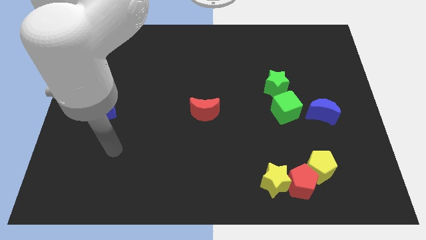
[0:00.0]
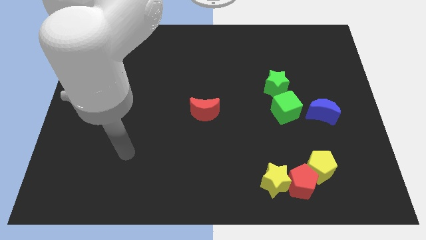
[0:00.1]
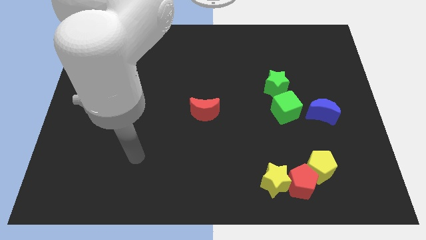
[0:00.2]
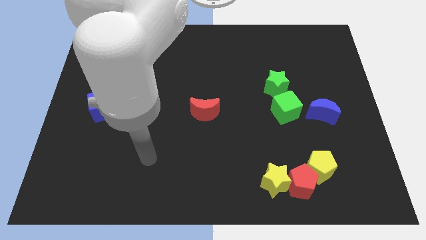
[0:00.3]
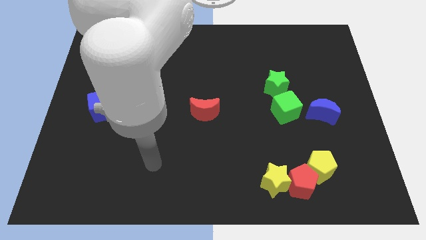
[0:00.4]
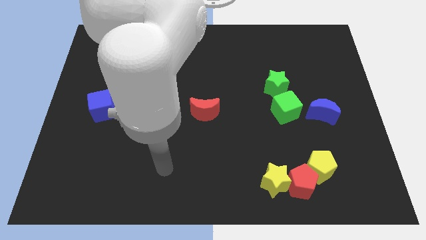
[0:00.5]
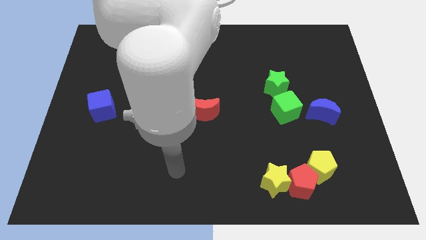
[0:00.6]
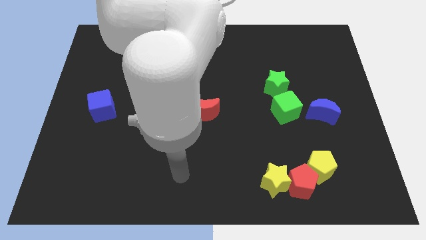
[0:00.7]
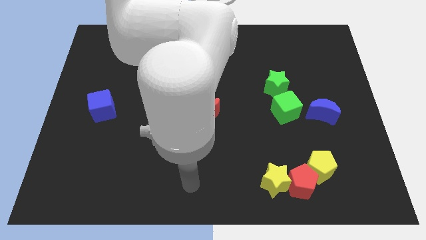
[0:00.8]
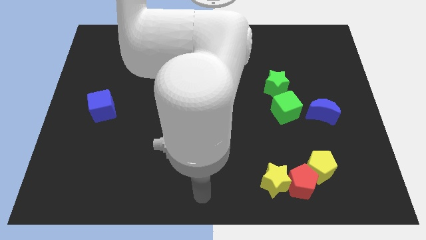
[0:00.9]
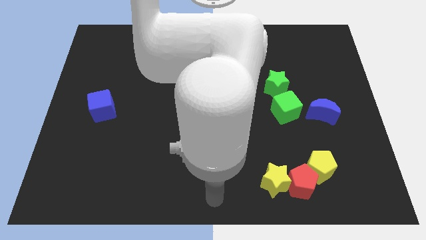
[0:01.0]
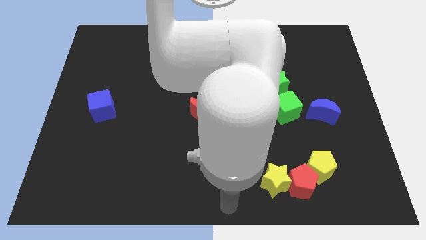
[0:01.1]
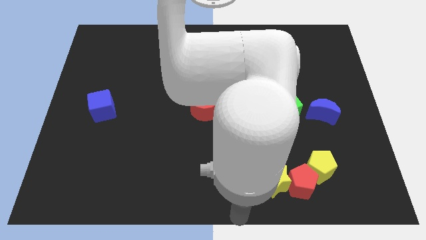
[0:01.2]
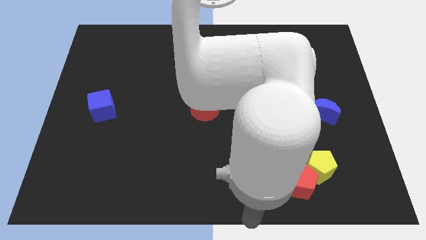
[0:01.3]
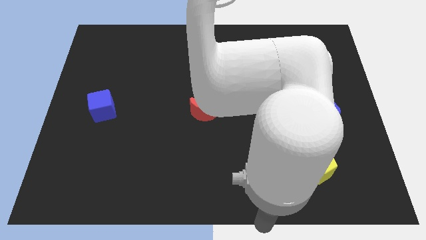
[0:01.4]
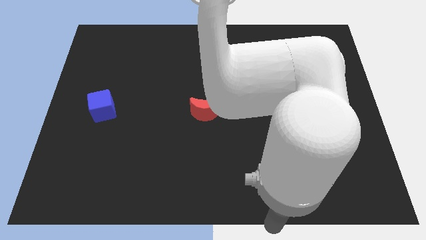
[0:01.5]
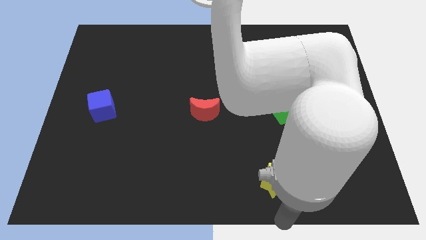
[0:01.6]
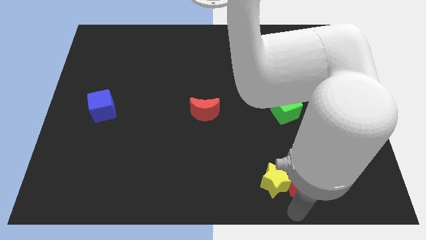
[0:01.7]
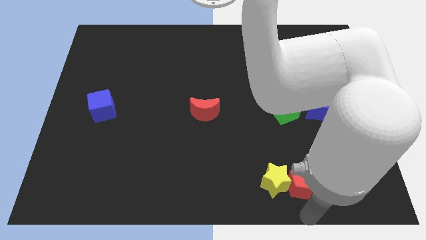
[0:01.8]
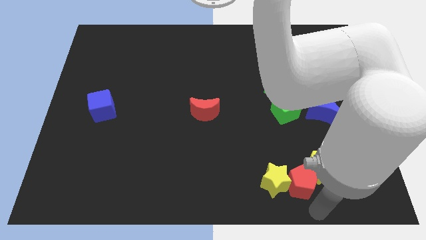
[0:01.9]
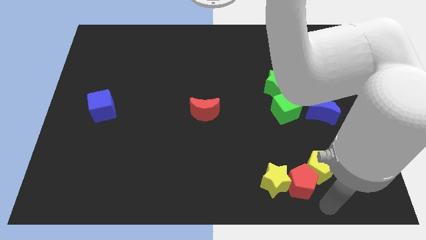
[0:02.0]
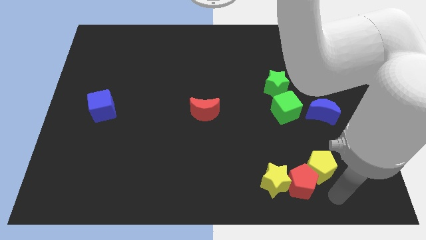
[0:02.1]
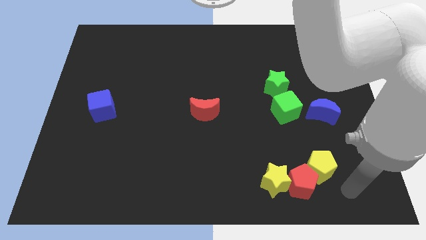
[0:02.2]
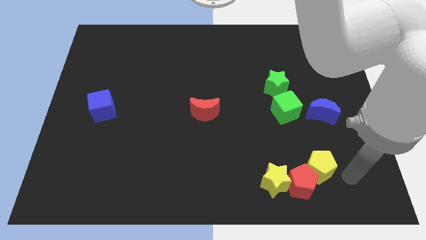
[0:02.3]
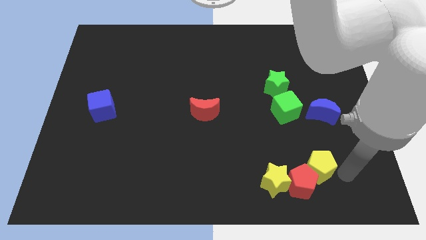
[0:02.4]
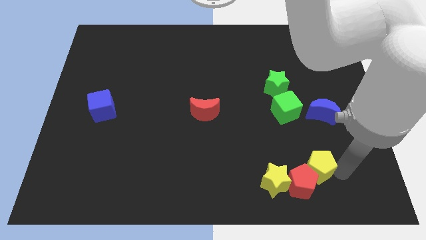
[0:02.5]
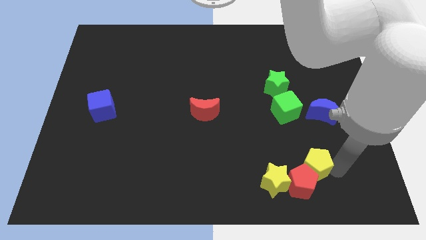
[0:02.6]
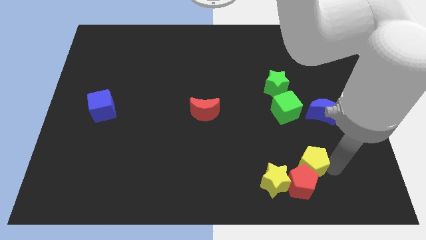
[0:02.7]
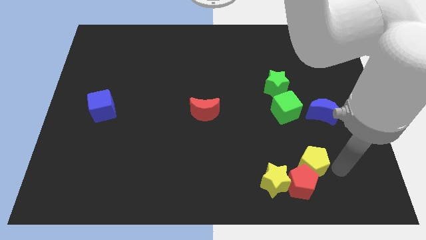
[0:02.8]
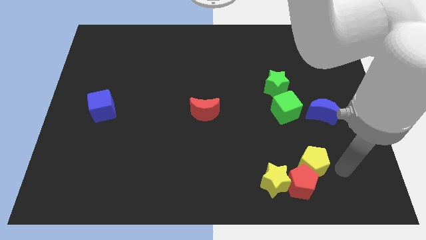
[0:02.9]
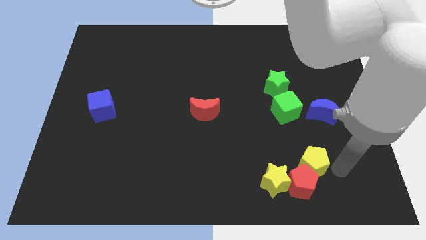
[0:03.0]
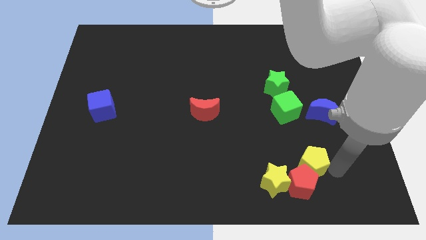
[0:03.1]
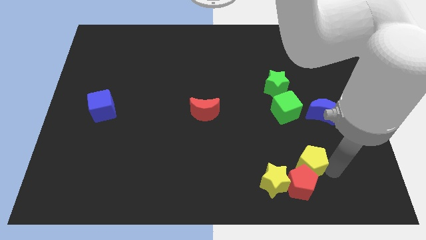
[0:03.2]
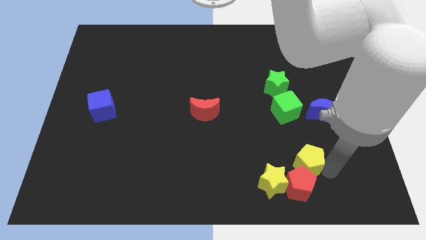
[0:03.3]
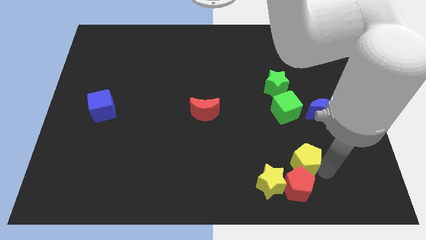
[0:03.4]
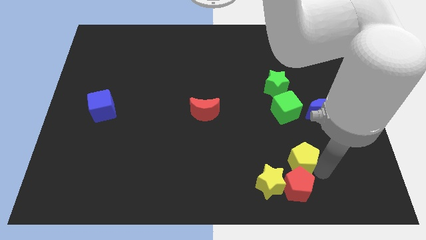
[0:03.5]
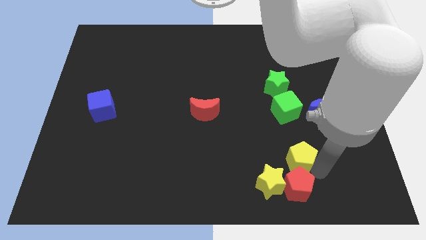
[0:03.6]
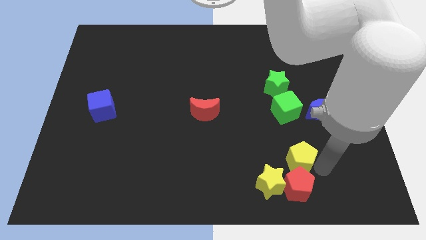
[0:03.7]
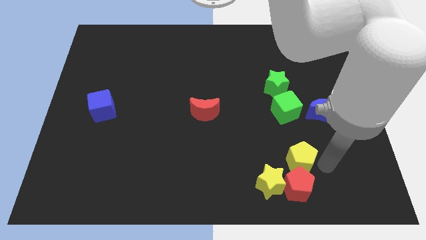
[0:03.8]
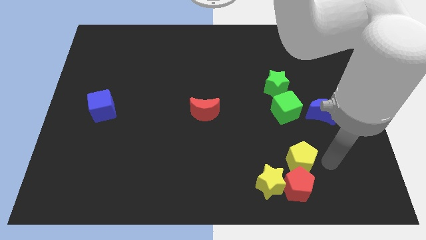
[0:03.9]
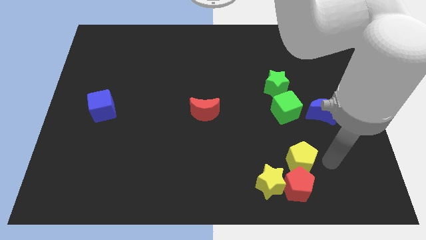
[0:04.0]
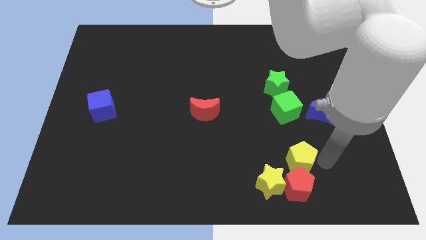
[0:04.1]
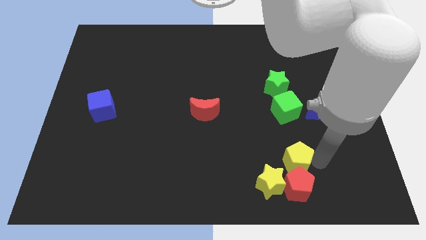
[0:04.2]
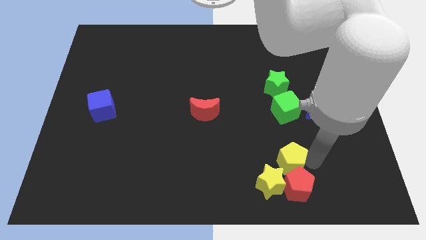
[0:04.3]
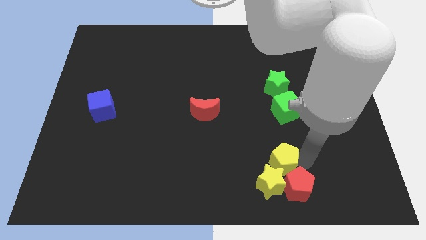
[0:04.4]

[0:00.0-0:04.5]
slide the yellow pentagon to the left somewhat

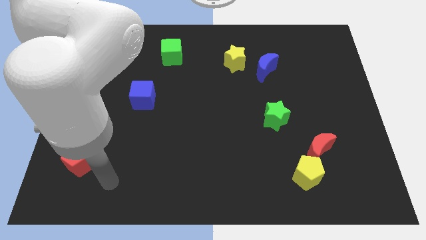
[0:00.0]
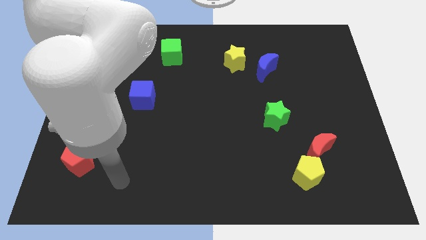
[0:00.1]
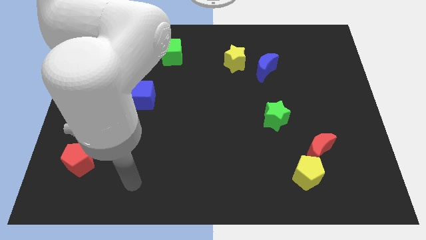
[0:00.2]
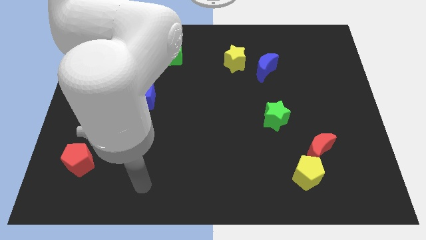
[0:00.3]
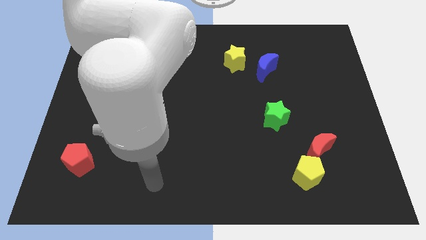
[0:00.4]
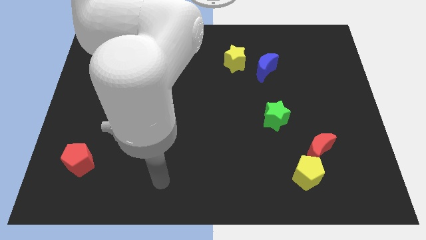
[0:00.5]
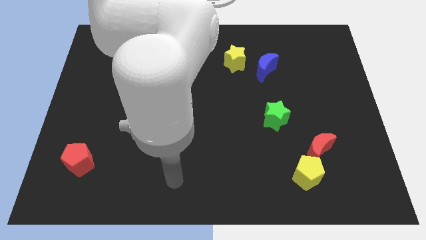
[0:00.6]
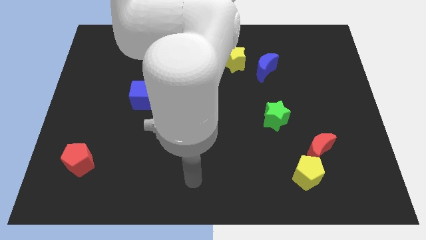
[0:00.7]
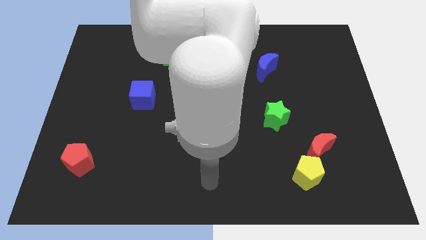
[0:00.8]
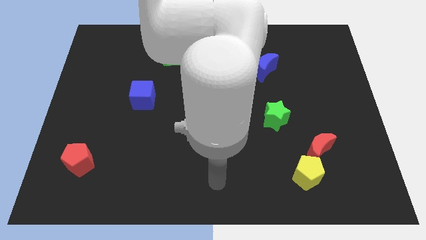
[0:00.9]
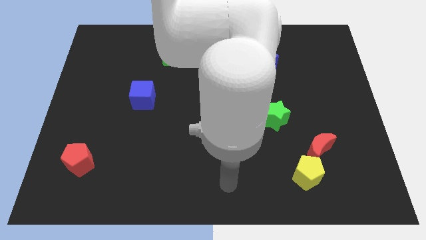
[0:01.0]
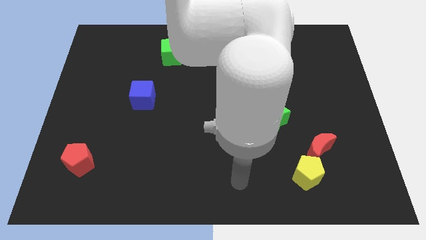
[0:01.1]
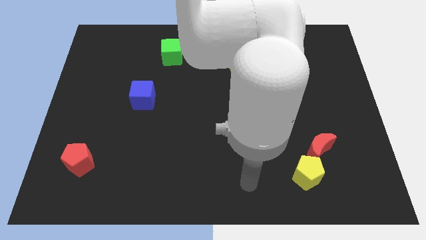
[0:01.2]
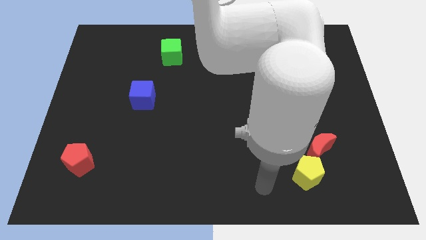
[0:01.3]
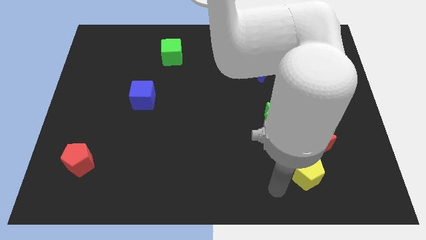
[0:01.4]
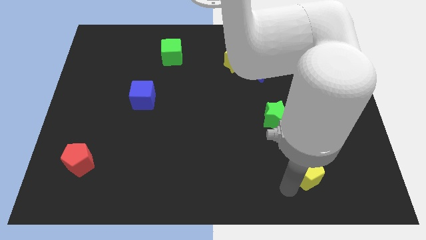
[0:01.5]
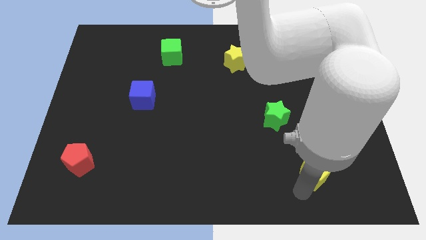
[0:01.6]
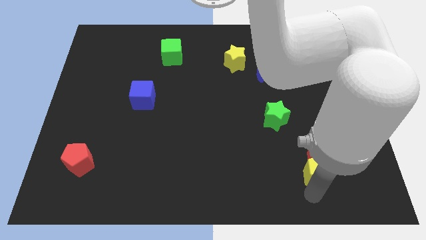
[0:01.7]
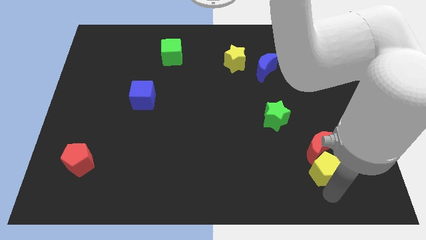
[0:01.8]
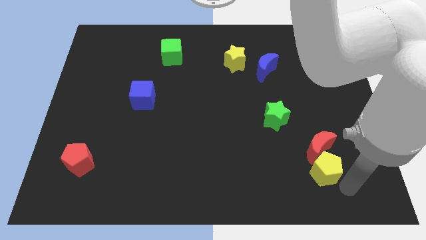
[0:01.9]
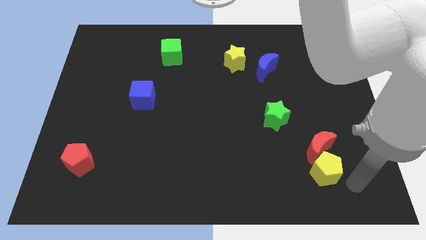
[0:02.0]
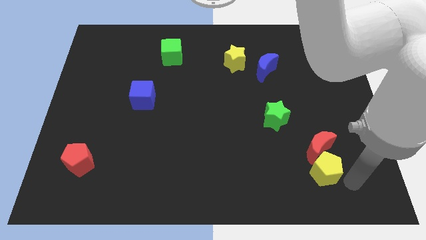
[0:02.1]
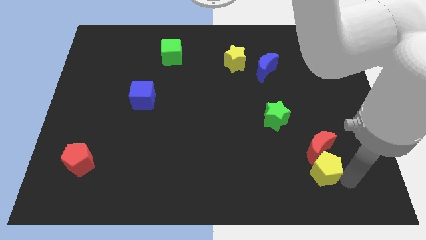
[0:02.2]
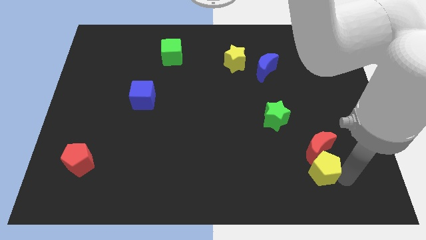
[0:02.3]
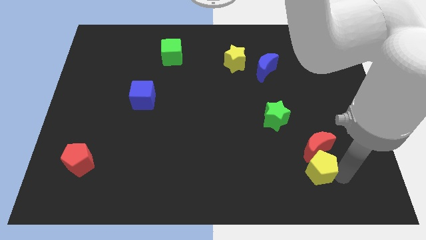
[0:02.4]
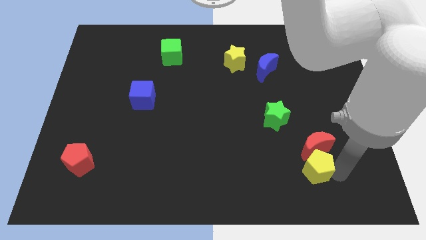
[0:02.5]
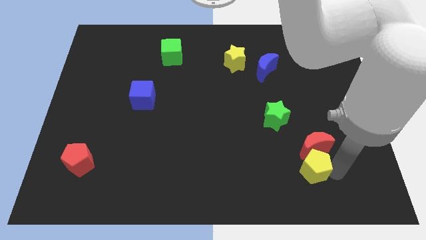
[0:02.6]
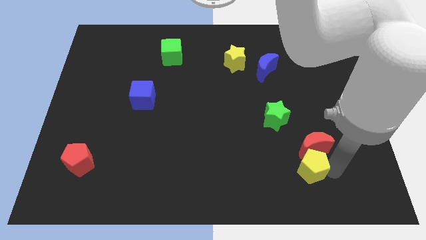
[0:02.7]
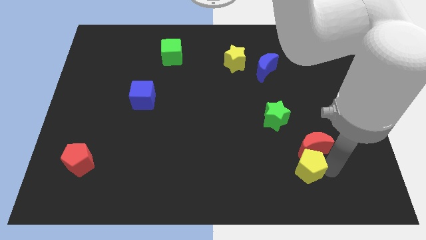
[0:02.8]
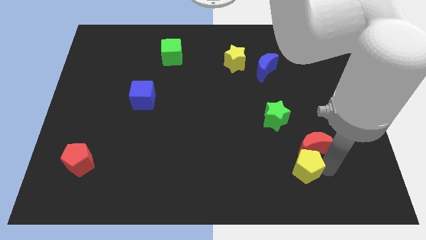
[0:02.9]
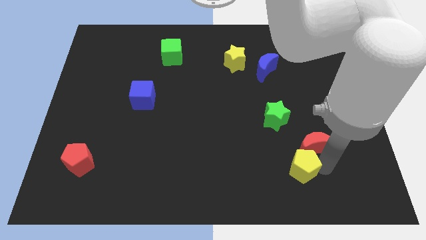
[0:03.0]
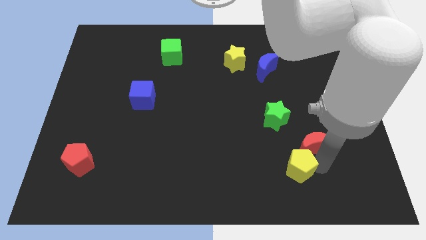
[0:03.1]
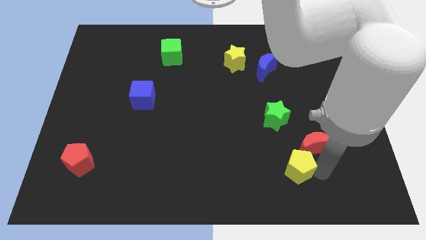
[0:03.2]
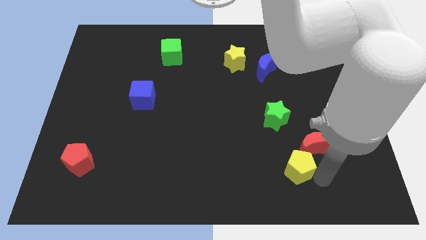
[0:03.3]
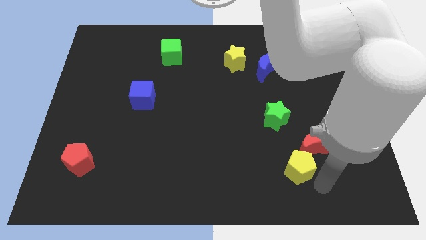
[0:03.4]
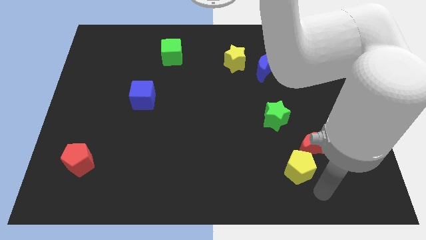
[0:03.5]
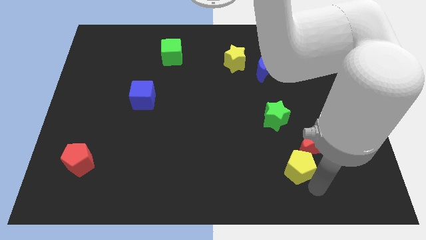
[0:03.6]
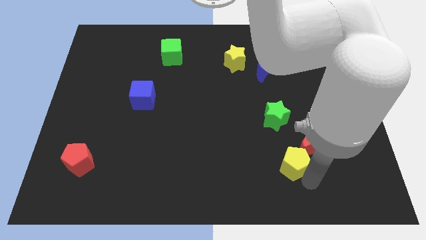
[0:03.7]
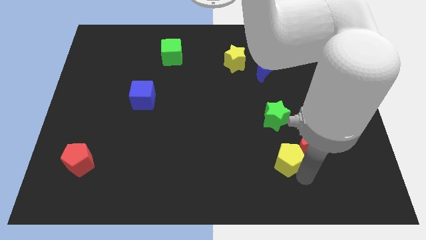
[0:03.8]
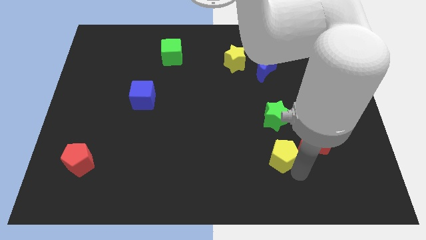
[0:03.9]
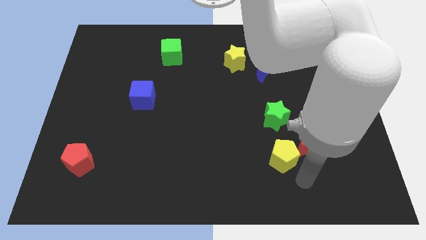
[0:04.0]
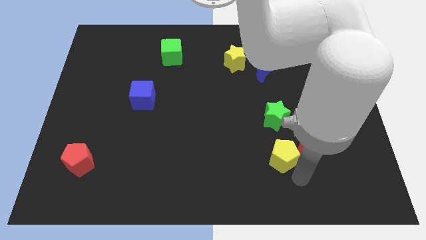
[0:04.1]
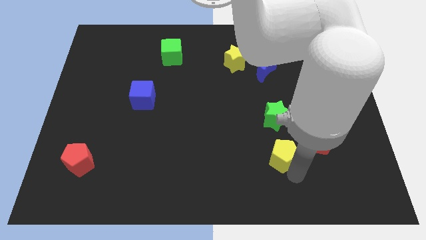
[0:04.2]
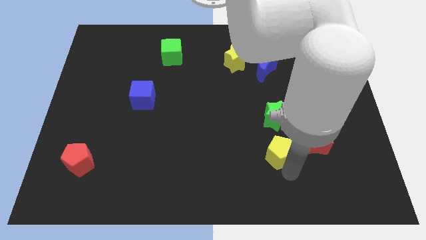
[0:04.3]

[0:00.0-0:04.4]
move the yellow pentagon up and then to the left slightly
